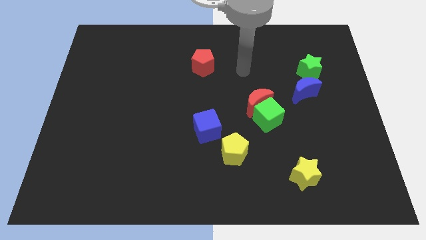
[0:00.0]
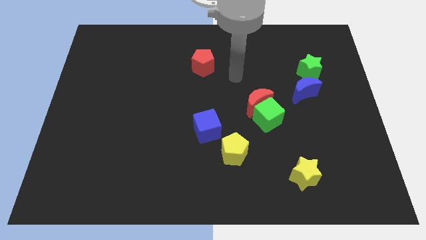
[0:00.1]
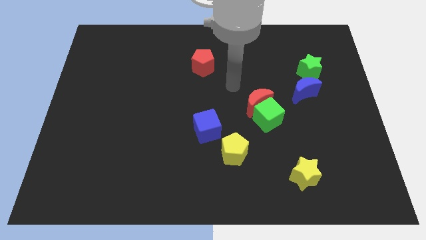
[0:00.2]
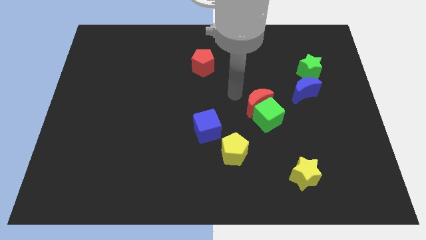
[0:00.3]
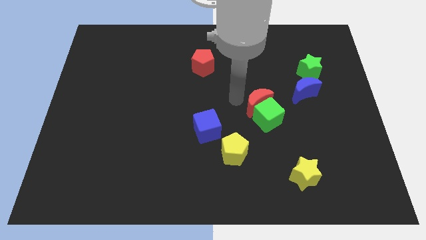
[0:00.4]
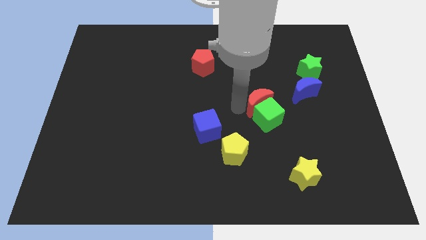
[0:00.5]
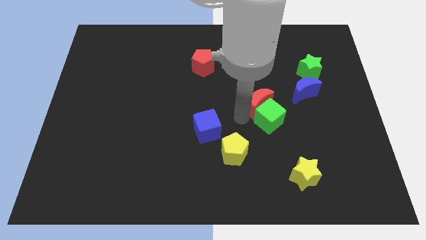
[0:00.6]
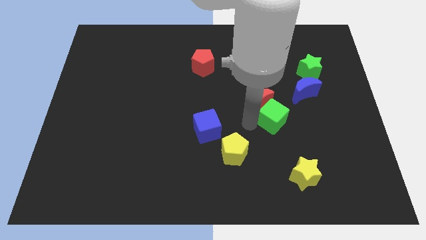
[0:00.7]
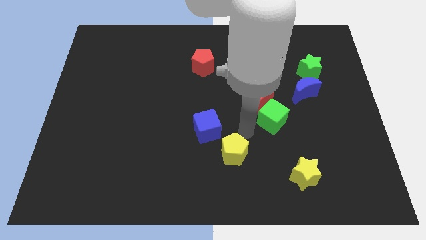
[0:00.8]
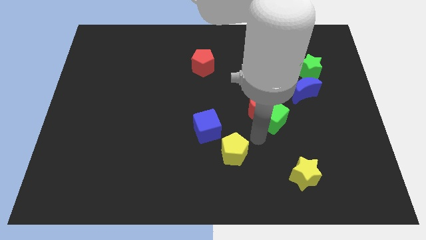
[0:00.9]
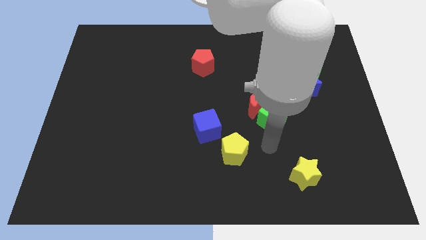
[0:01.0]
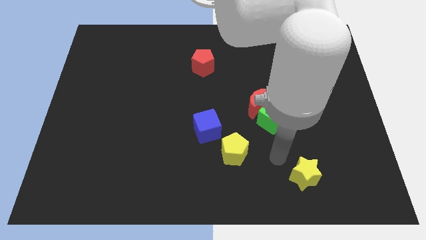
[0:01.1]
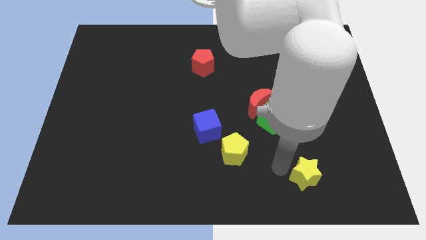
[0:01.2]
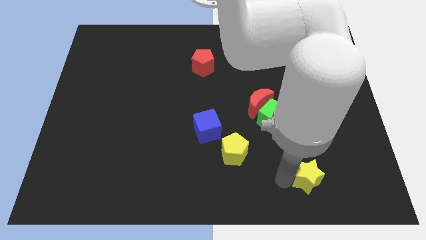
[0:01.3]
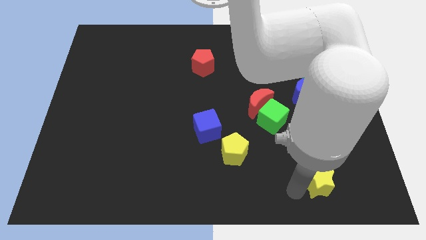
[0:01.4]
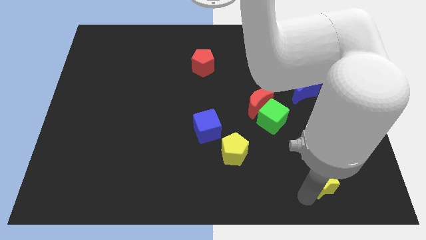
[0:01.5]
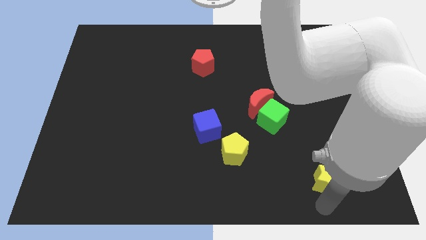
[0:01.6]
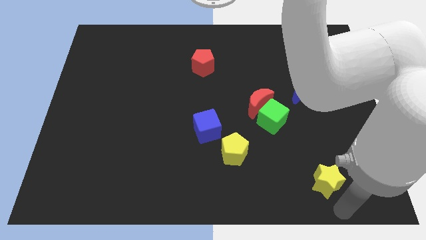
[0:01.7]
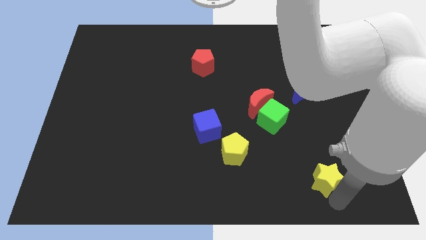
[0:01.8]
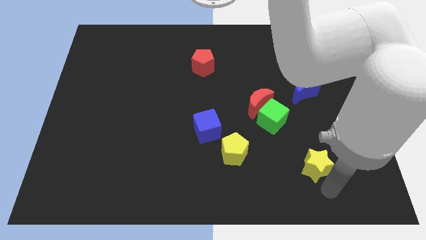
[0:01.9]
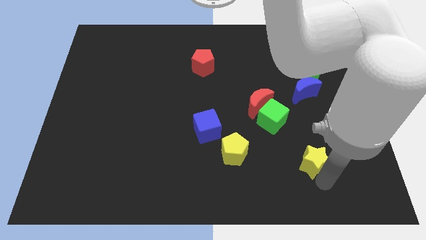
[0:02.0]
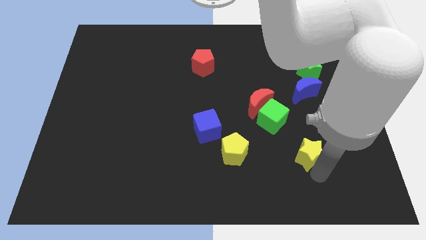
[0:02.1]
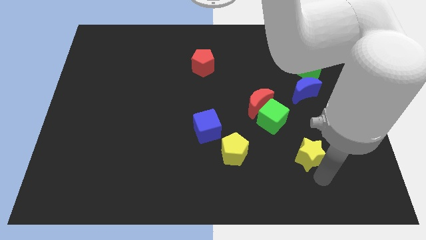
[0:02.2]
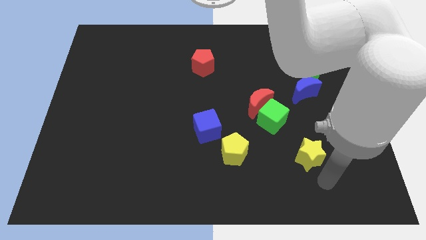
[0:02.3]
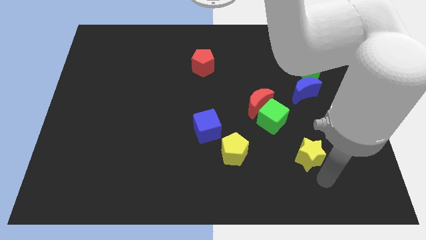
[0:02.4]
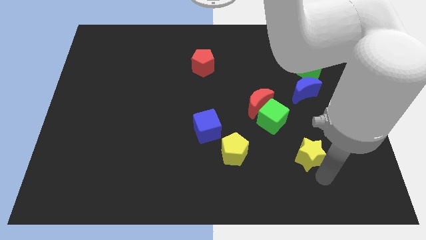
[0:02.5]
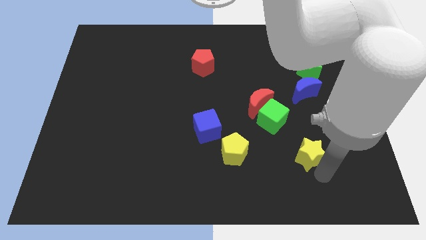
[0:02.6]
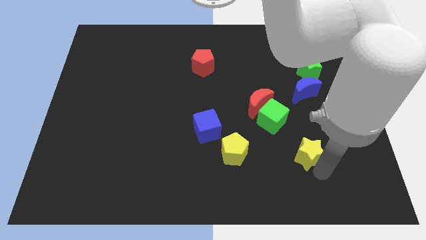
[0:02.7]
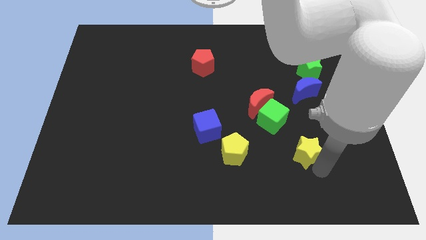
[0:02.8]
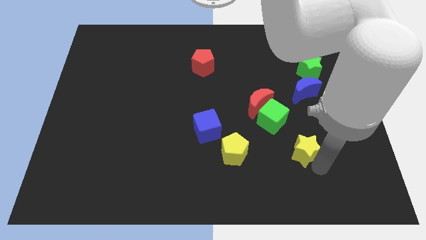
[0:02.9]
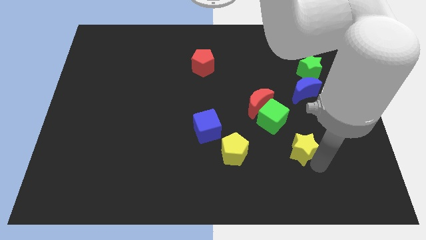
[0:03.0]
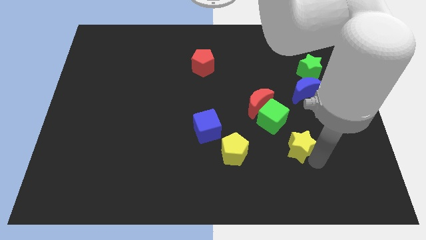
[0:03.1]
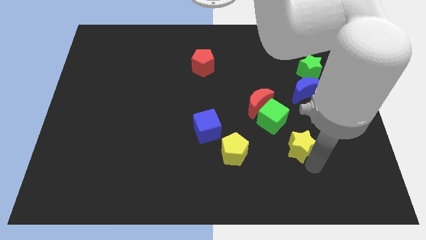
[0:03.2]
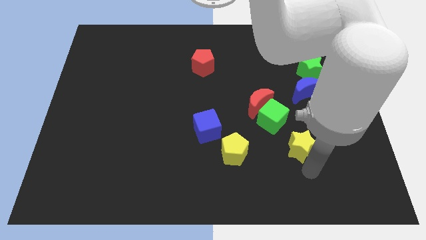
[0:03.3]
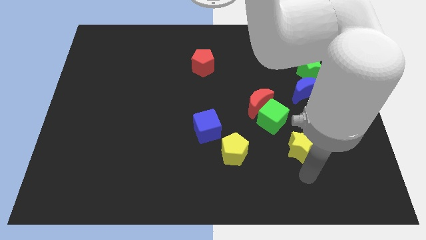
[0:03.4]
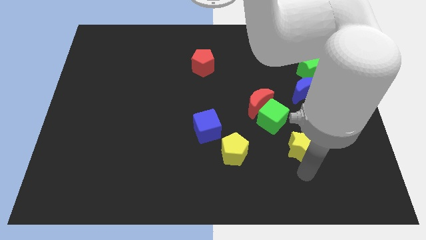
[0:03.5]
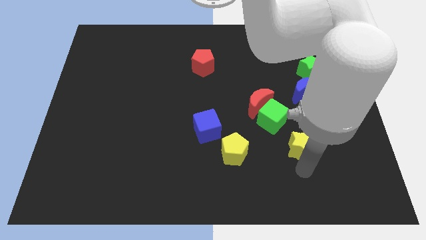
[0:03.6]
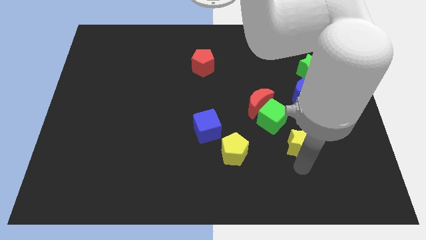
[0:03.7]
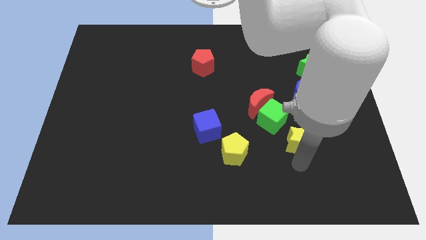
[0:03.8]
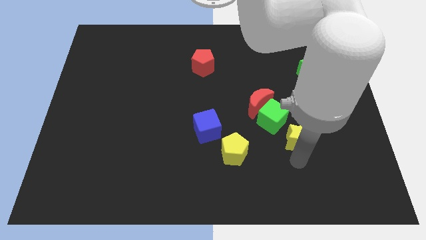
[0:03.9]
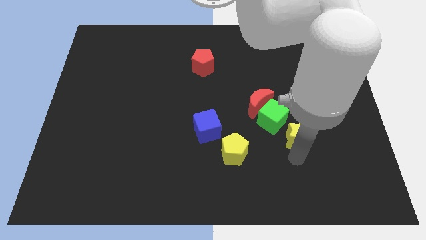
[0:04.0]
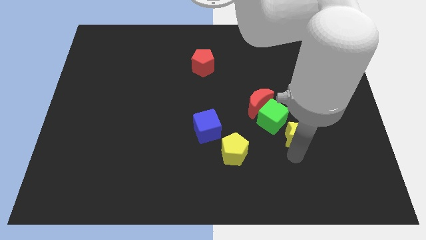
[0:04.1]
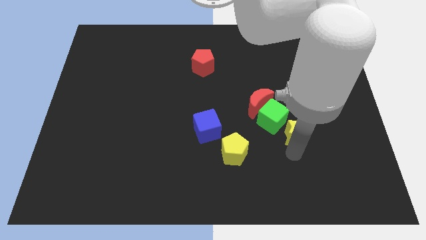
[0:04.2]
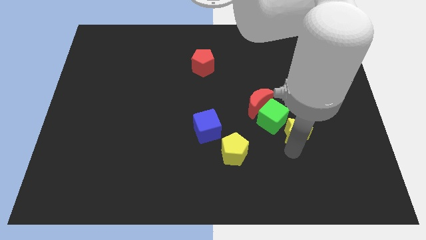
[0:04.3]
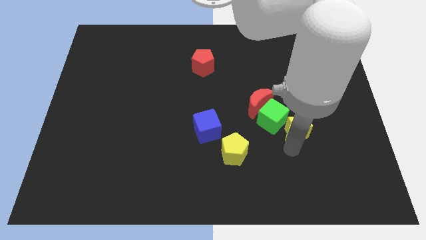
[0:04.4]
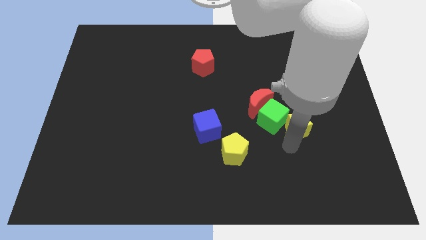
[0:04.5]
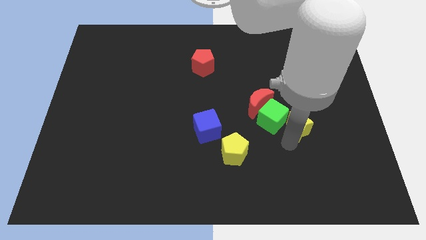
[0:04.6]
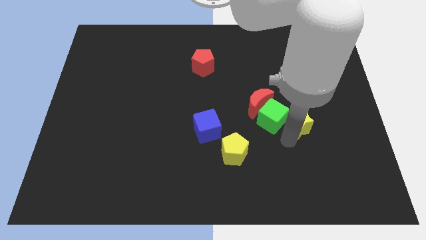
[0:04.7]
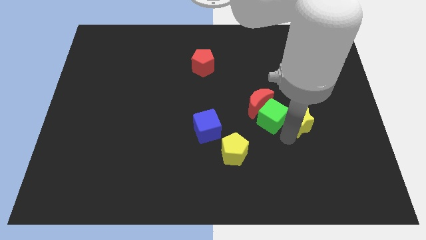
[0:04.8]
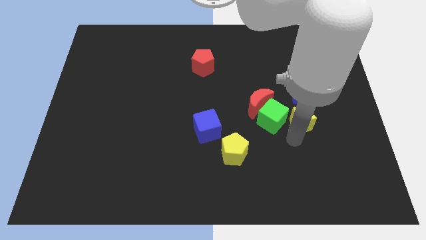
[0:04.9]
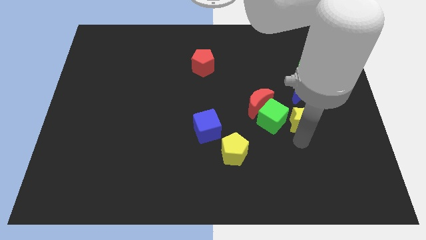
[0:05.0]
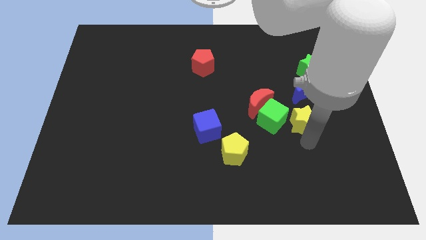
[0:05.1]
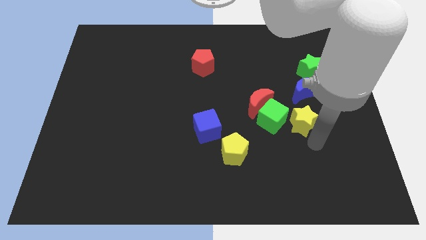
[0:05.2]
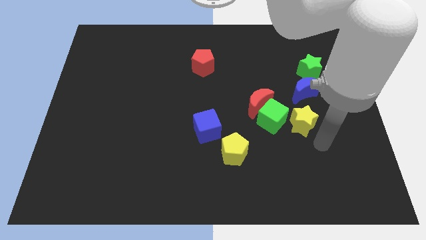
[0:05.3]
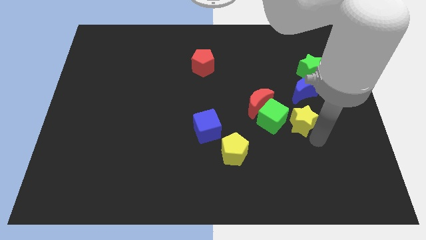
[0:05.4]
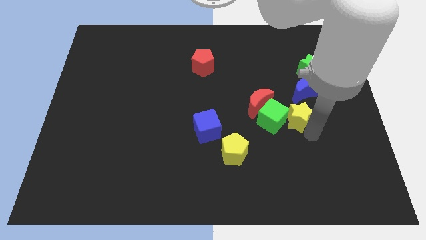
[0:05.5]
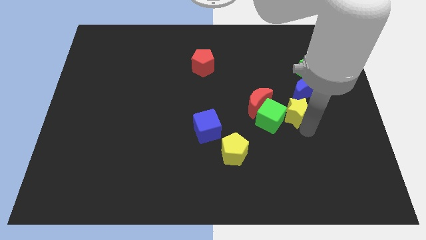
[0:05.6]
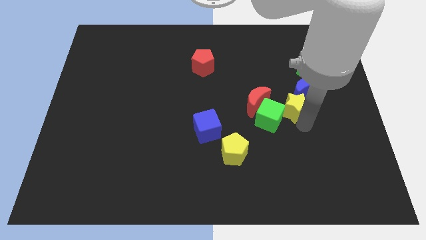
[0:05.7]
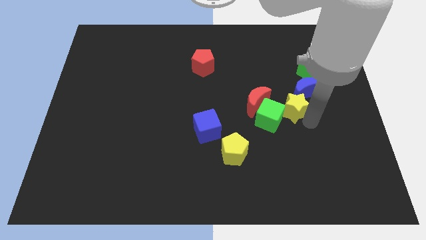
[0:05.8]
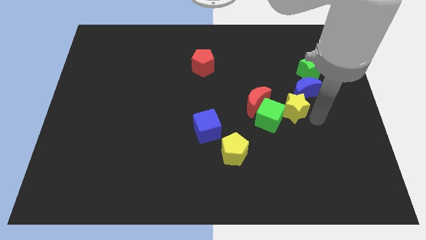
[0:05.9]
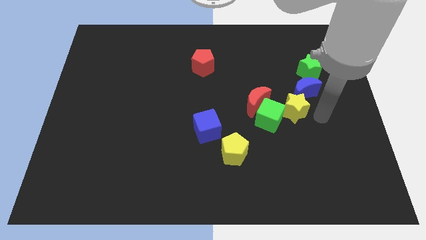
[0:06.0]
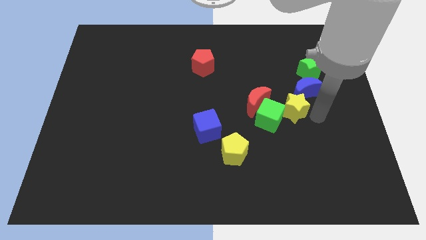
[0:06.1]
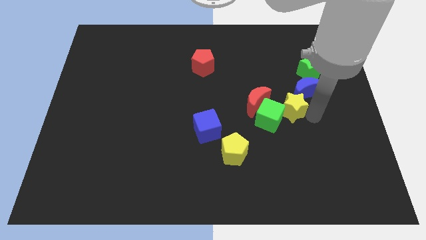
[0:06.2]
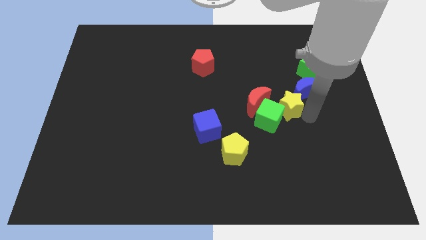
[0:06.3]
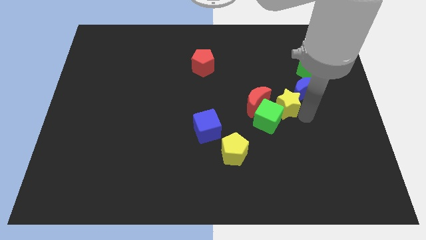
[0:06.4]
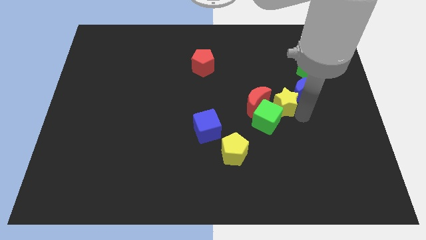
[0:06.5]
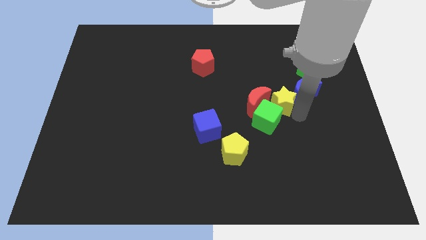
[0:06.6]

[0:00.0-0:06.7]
put the yellow star towards the red moon

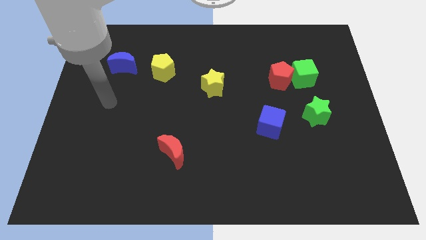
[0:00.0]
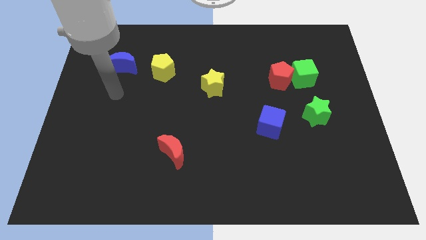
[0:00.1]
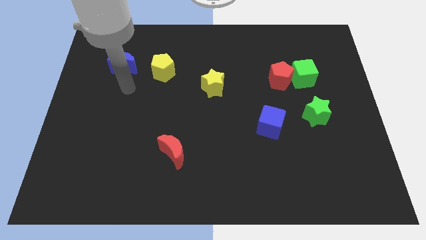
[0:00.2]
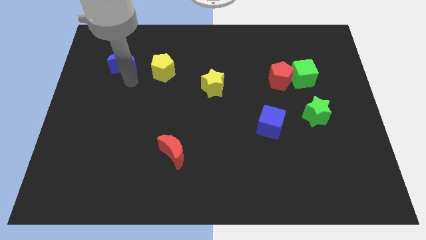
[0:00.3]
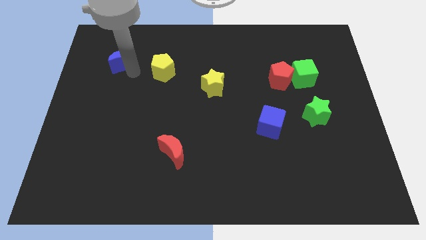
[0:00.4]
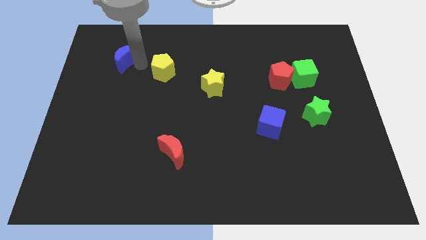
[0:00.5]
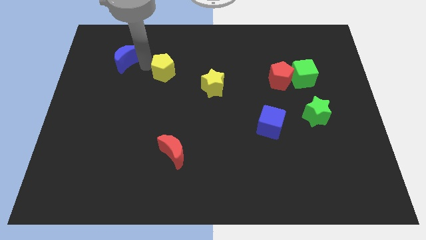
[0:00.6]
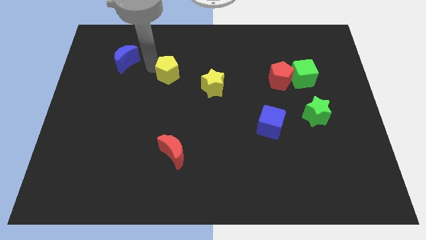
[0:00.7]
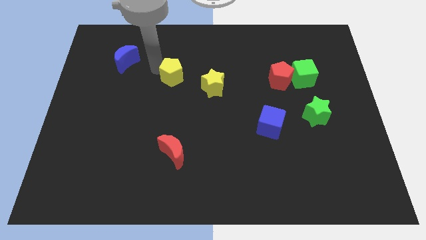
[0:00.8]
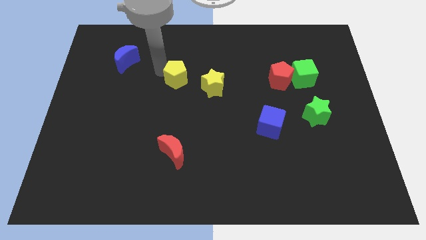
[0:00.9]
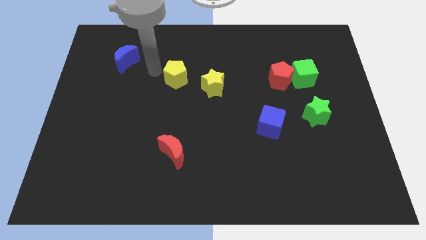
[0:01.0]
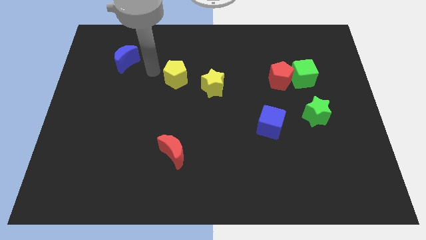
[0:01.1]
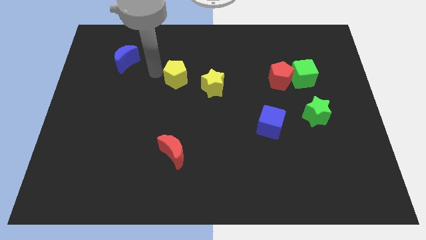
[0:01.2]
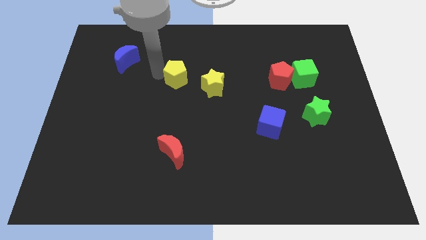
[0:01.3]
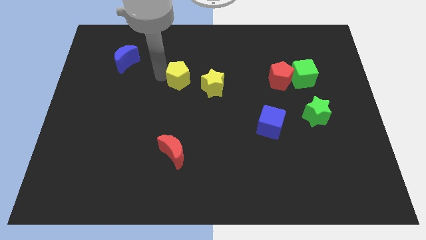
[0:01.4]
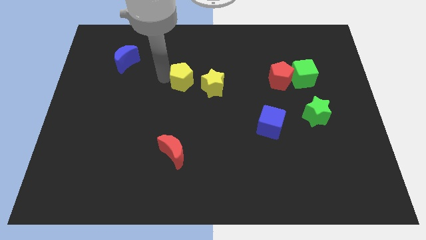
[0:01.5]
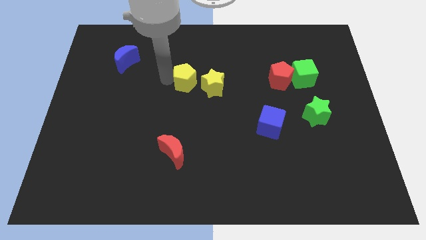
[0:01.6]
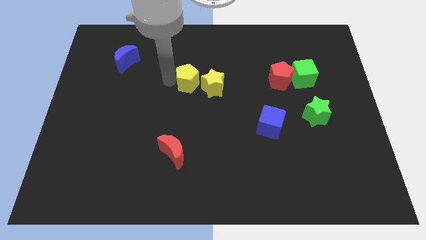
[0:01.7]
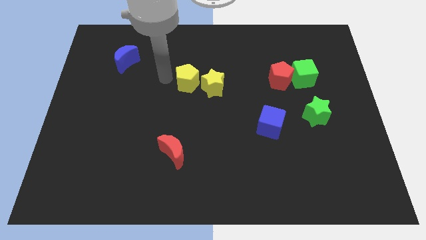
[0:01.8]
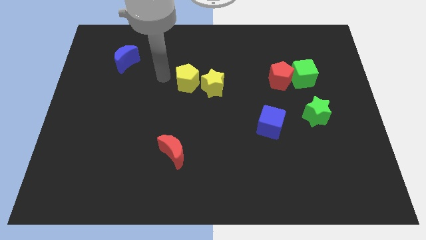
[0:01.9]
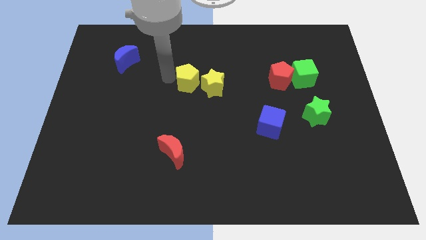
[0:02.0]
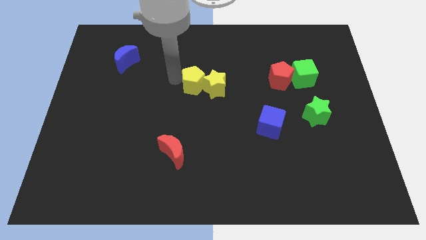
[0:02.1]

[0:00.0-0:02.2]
put the yellow pentagon towards the yellow star
